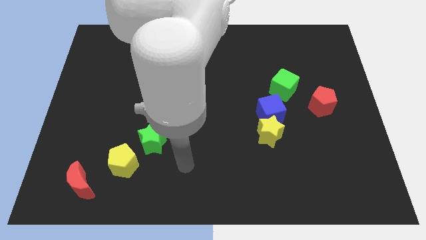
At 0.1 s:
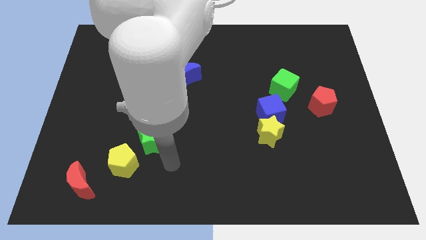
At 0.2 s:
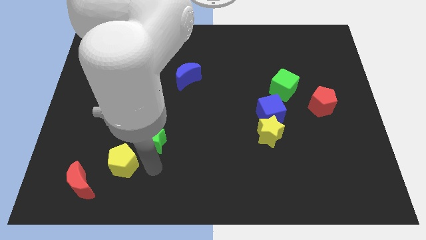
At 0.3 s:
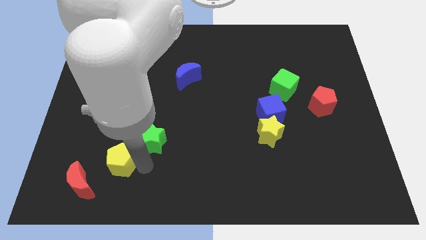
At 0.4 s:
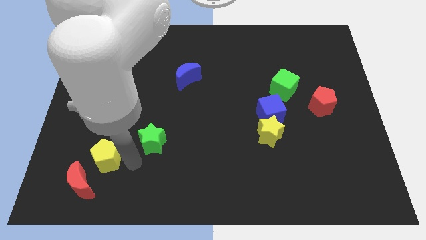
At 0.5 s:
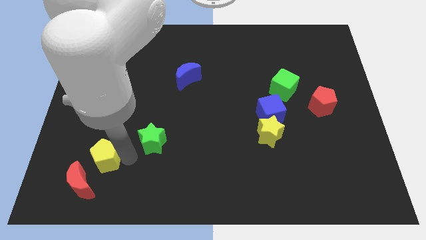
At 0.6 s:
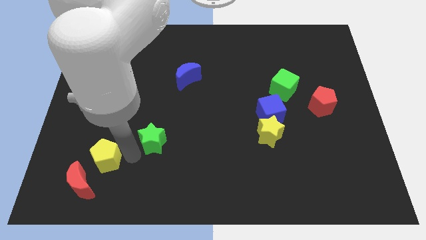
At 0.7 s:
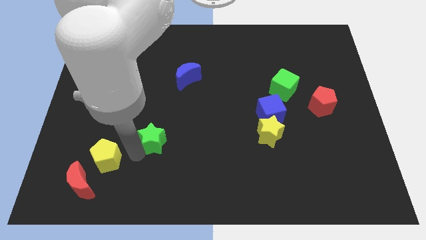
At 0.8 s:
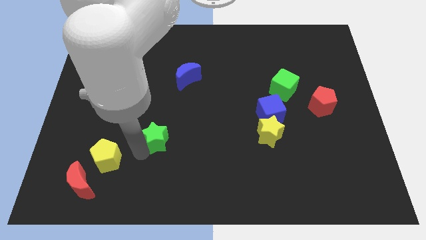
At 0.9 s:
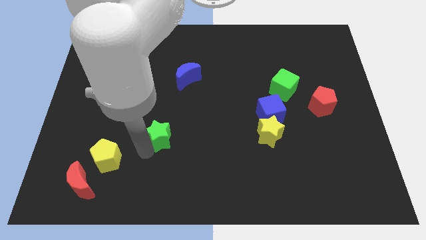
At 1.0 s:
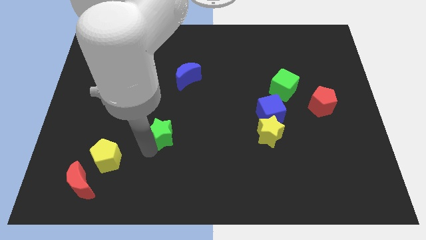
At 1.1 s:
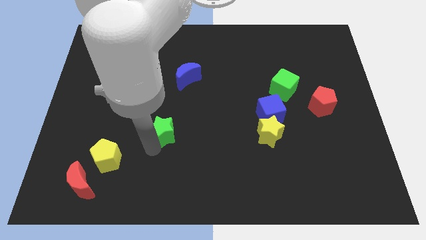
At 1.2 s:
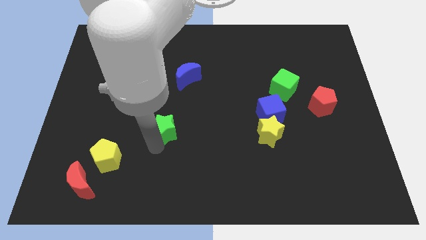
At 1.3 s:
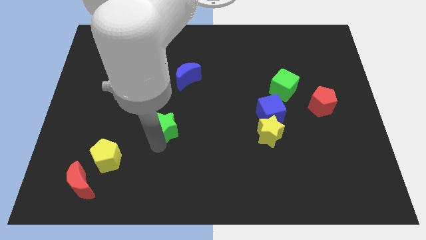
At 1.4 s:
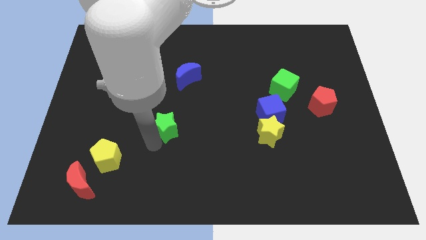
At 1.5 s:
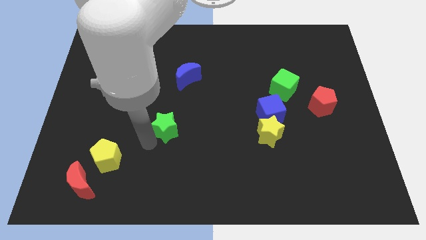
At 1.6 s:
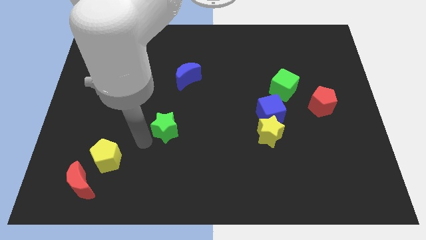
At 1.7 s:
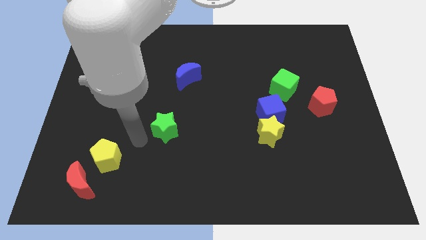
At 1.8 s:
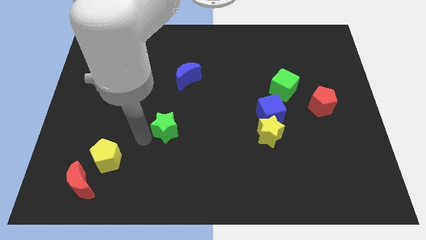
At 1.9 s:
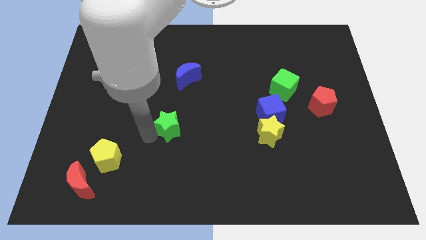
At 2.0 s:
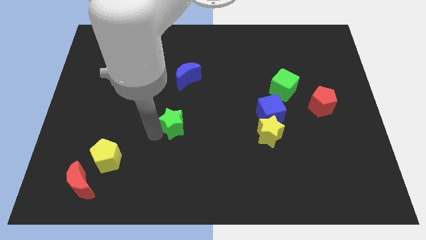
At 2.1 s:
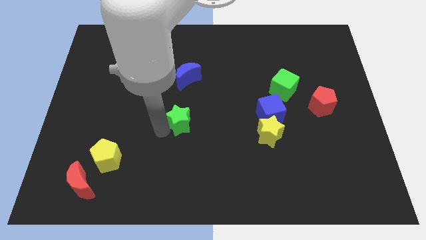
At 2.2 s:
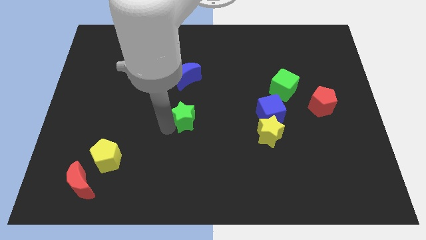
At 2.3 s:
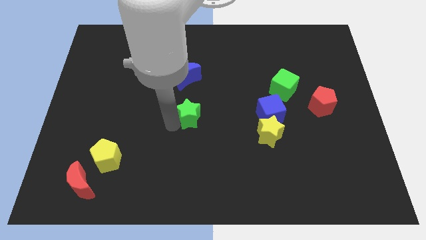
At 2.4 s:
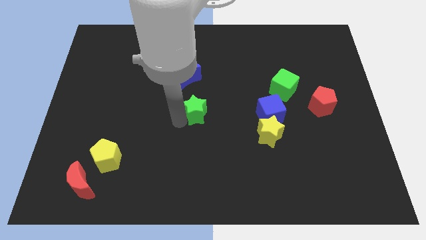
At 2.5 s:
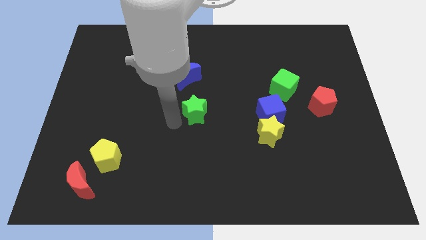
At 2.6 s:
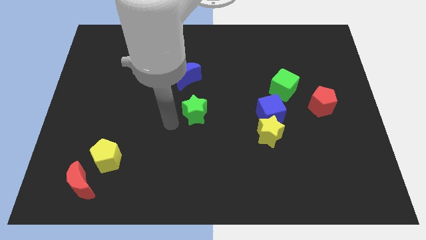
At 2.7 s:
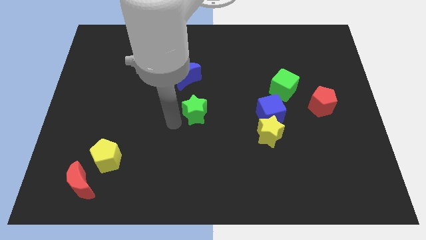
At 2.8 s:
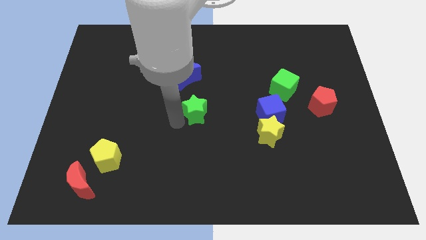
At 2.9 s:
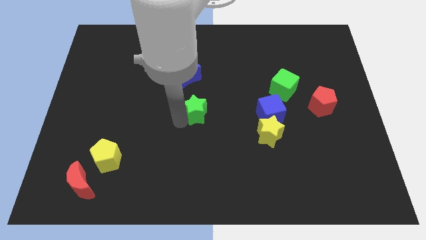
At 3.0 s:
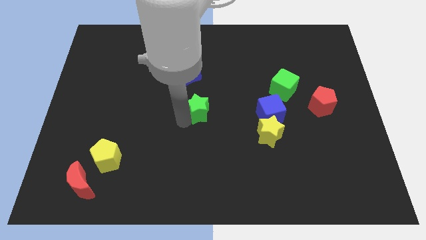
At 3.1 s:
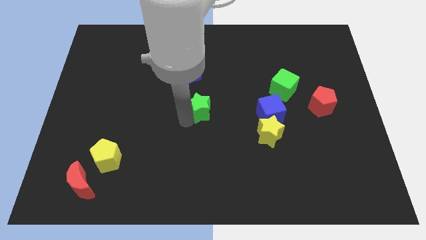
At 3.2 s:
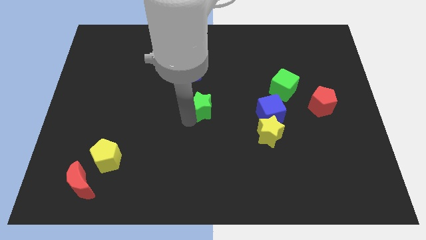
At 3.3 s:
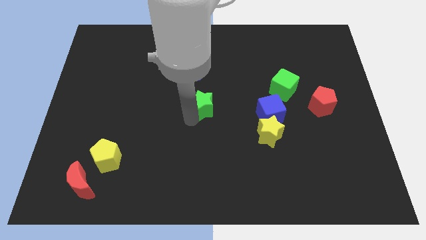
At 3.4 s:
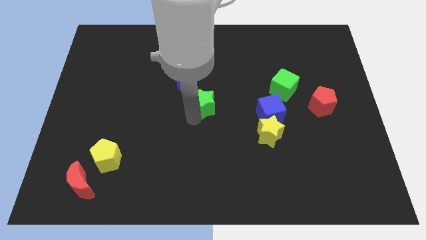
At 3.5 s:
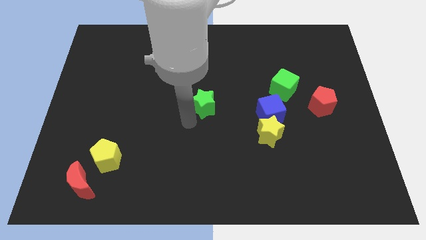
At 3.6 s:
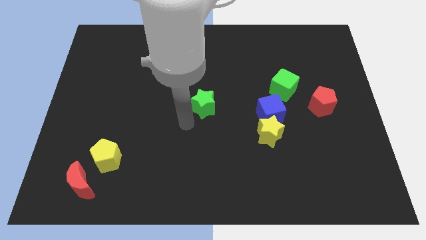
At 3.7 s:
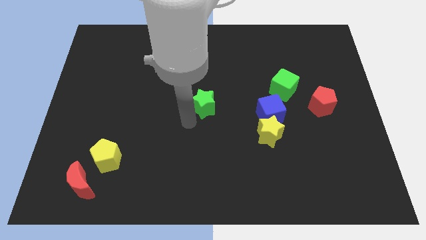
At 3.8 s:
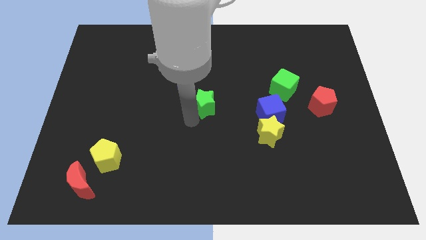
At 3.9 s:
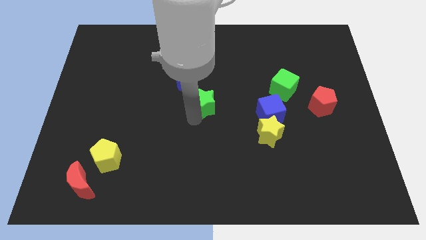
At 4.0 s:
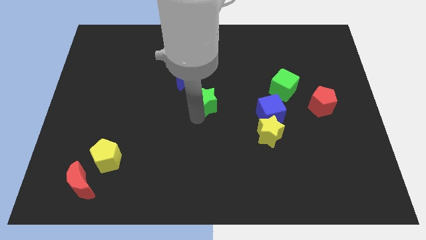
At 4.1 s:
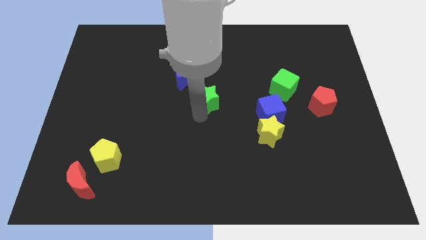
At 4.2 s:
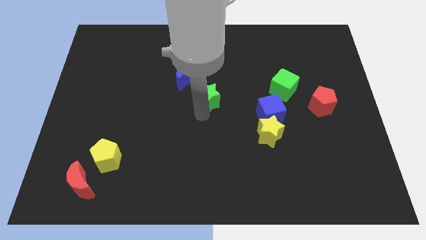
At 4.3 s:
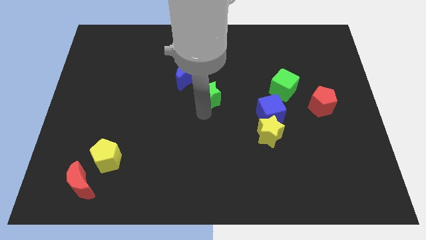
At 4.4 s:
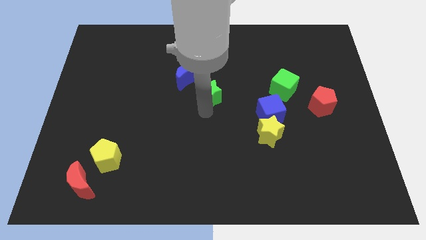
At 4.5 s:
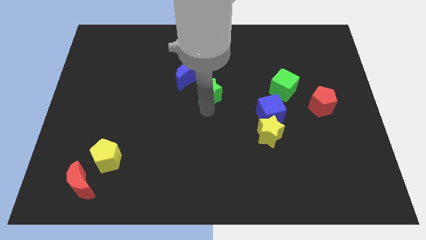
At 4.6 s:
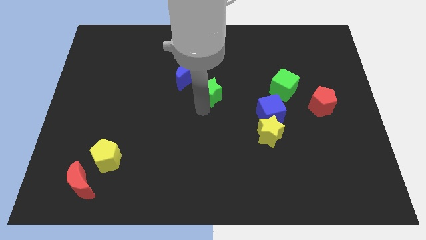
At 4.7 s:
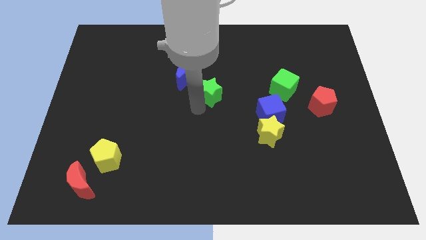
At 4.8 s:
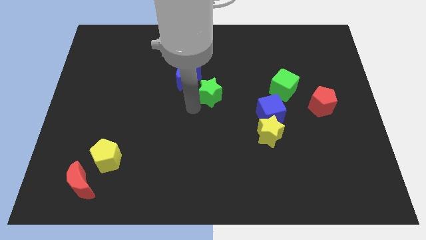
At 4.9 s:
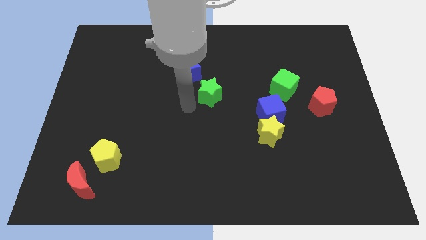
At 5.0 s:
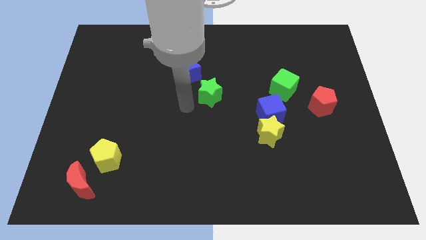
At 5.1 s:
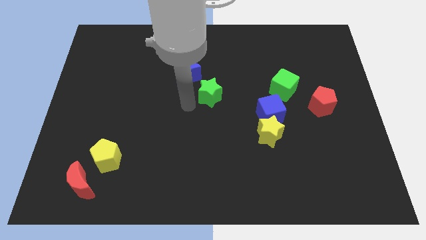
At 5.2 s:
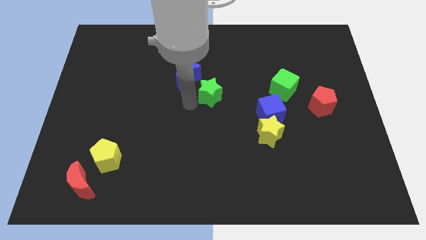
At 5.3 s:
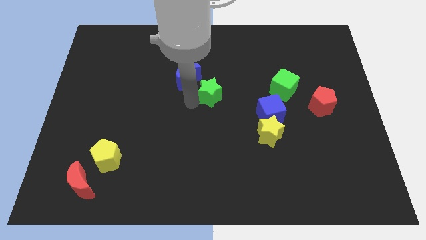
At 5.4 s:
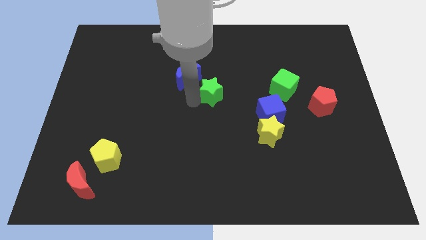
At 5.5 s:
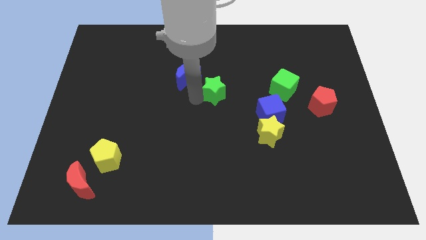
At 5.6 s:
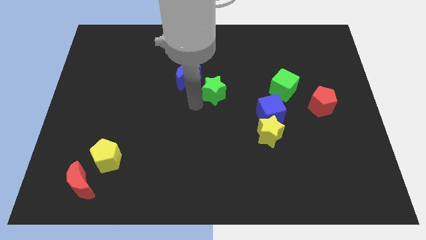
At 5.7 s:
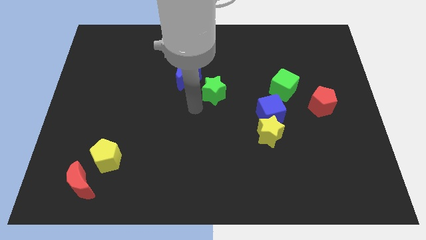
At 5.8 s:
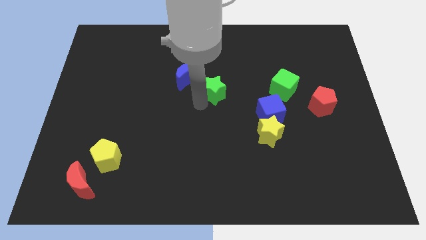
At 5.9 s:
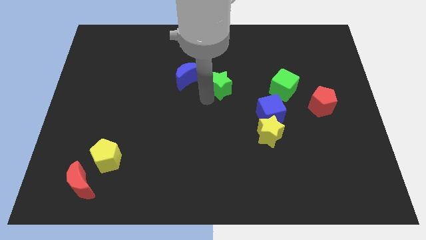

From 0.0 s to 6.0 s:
move the green star up and then right

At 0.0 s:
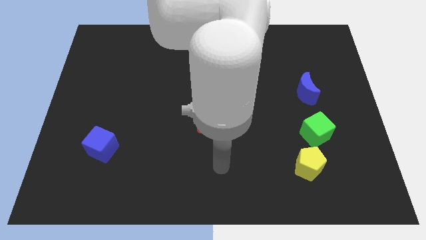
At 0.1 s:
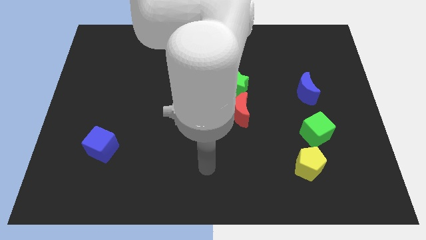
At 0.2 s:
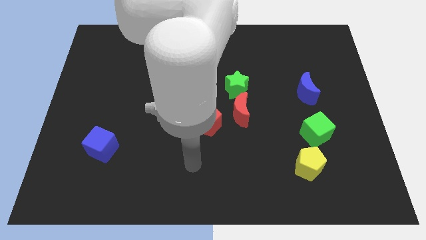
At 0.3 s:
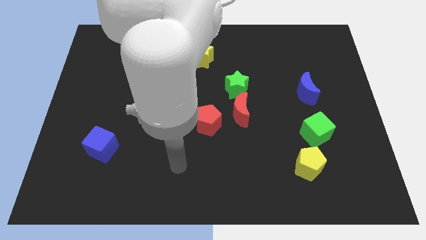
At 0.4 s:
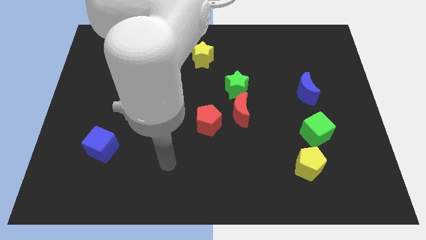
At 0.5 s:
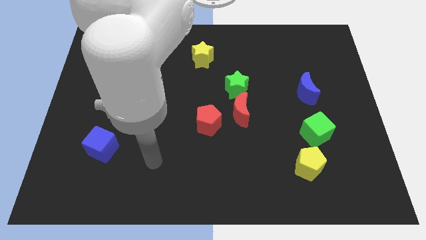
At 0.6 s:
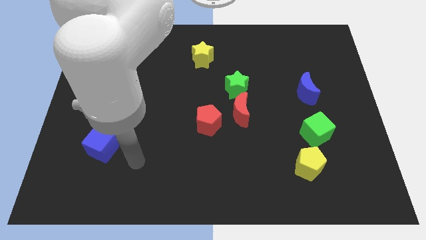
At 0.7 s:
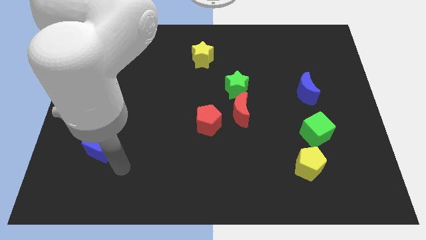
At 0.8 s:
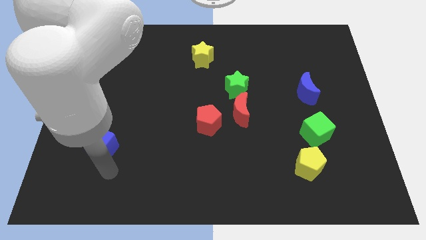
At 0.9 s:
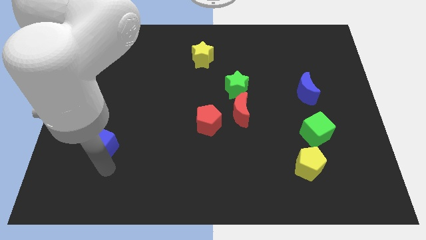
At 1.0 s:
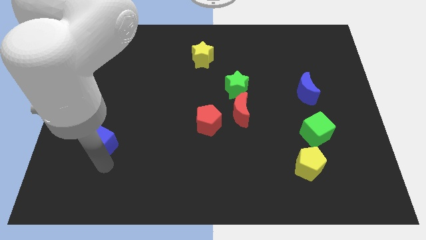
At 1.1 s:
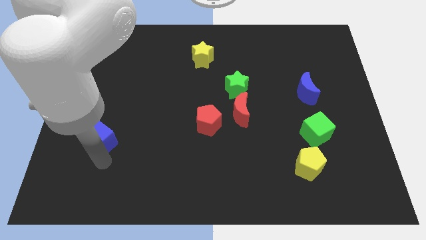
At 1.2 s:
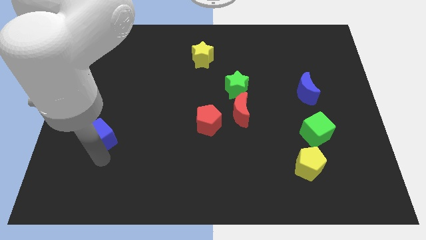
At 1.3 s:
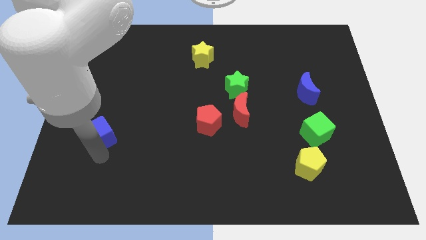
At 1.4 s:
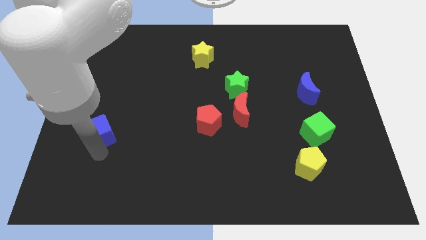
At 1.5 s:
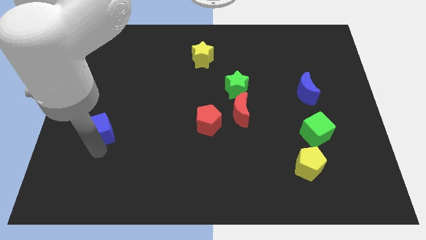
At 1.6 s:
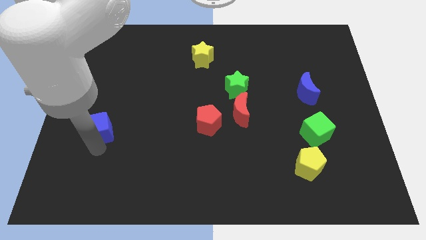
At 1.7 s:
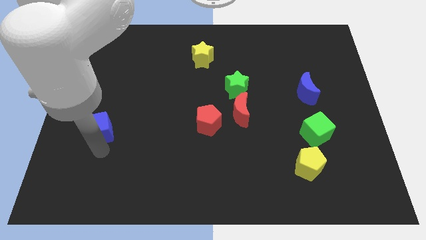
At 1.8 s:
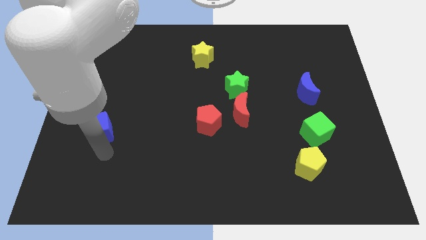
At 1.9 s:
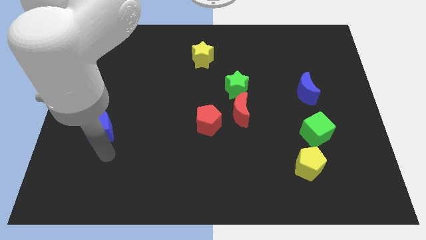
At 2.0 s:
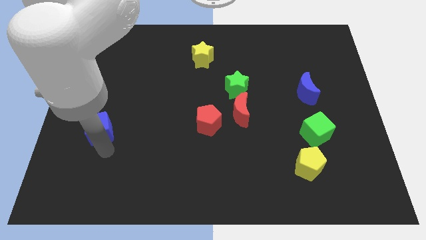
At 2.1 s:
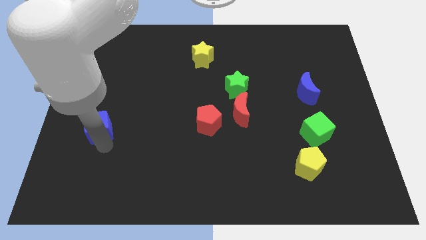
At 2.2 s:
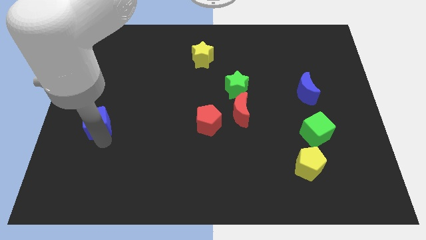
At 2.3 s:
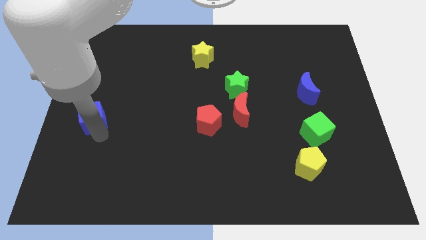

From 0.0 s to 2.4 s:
move the blue cube slightly upwards
